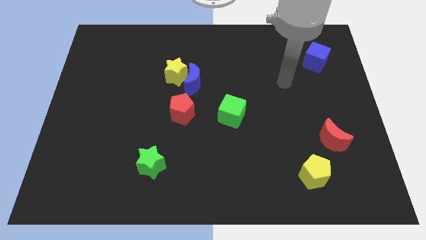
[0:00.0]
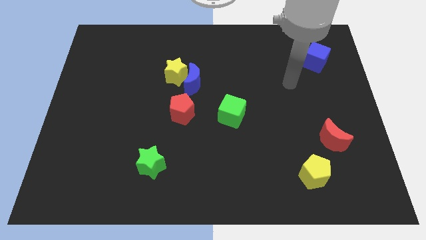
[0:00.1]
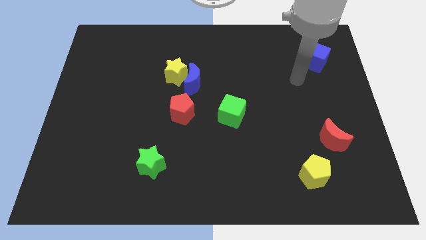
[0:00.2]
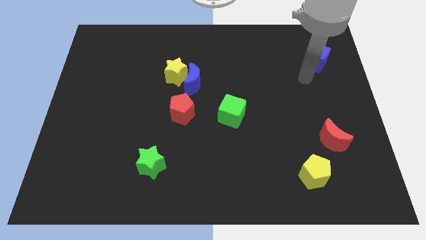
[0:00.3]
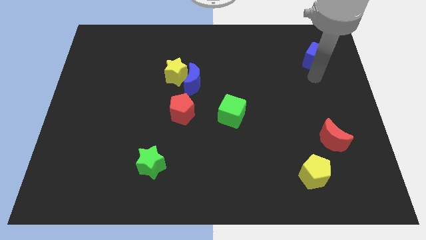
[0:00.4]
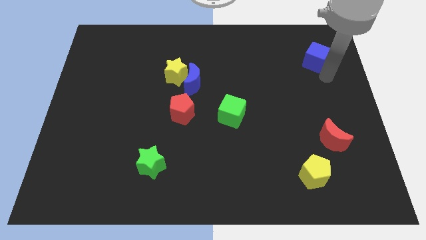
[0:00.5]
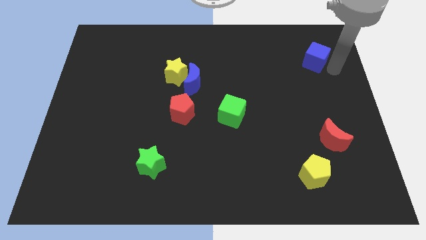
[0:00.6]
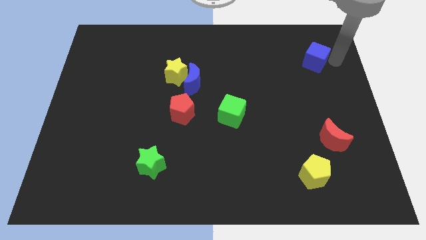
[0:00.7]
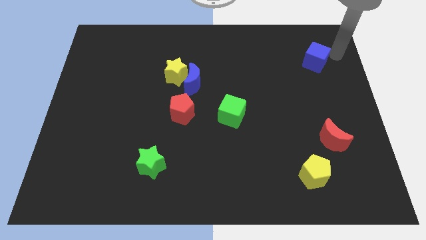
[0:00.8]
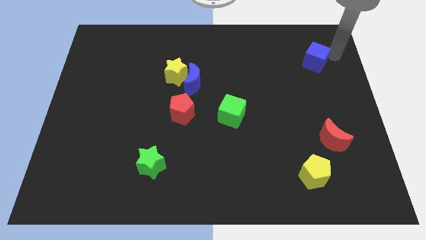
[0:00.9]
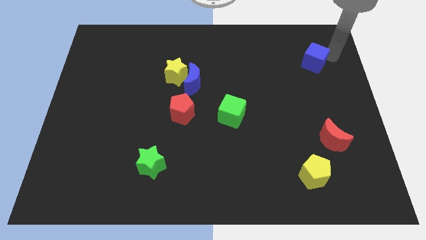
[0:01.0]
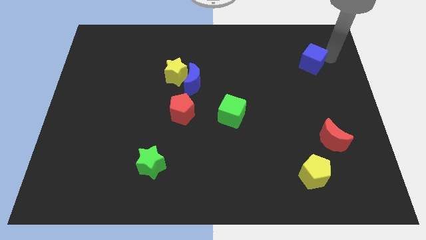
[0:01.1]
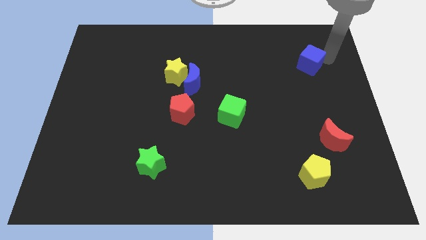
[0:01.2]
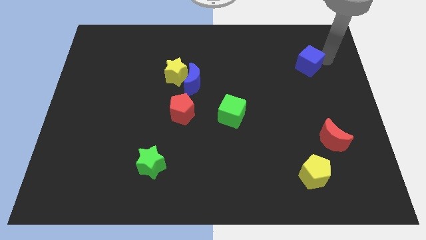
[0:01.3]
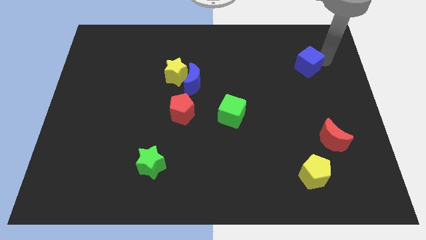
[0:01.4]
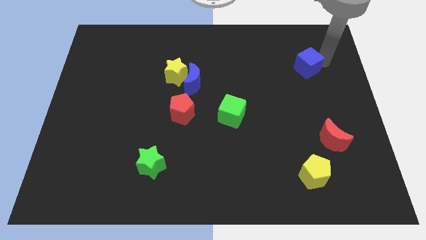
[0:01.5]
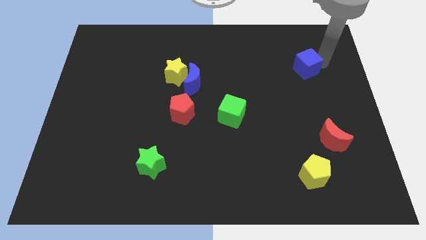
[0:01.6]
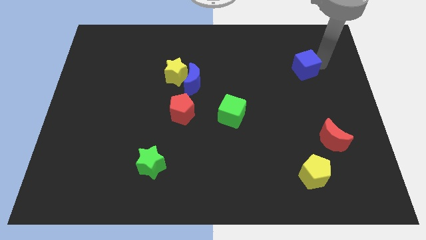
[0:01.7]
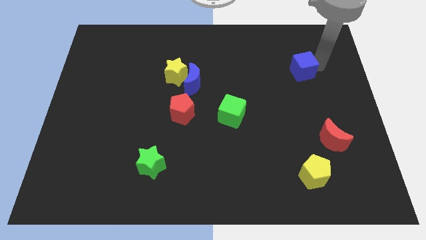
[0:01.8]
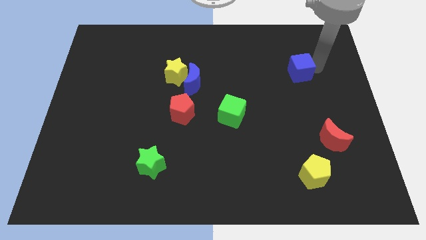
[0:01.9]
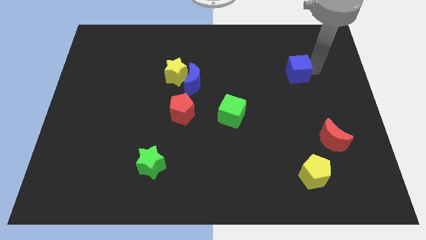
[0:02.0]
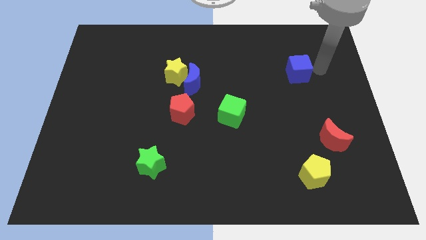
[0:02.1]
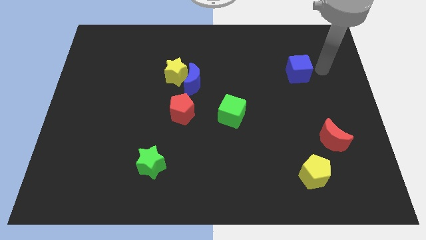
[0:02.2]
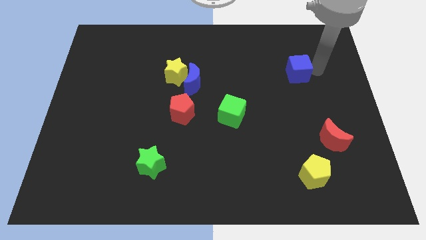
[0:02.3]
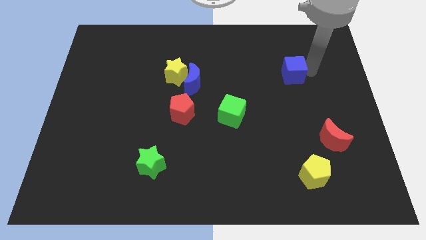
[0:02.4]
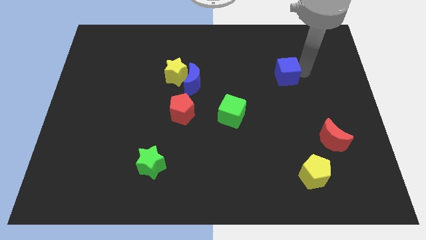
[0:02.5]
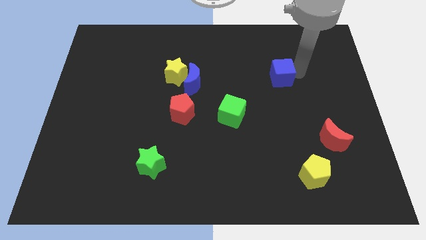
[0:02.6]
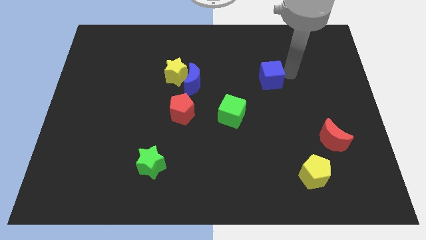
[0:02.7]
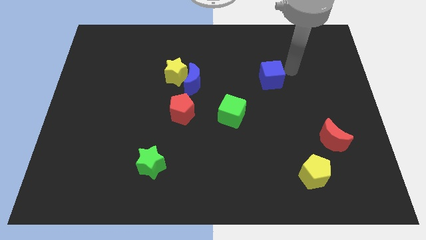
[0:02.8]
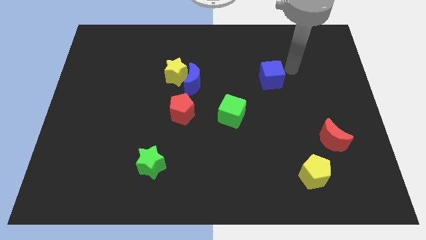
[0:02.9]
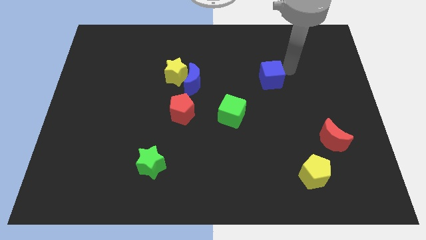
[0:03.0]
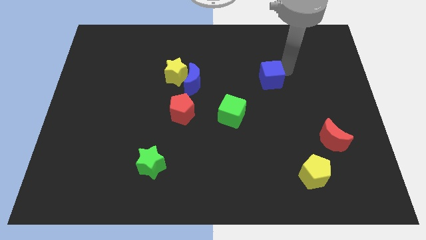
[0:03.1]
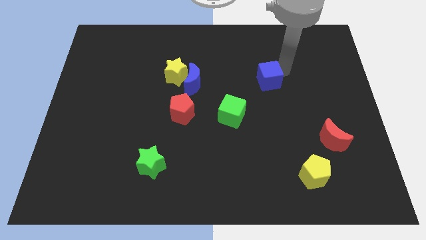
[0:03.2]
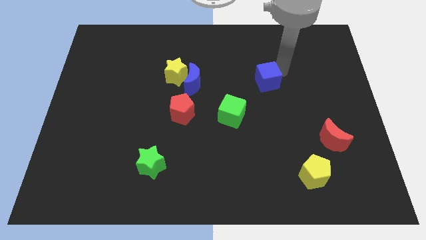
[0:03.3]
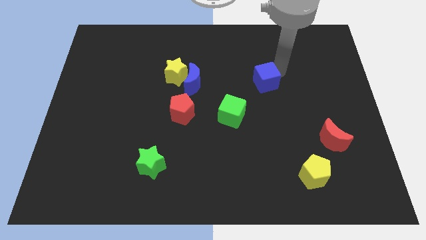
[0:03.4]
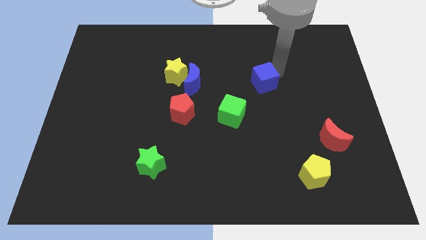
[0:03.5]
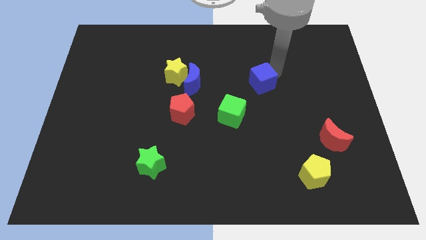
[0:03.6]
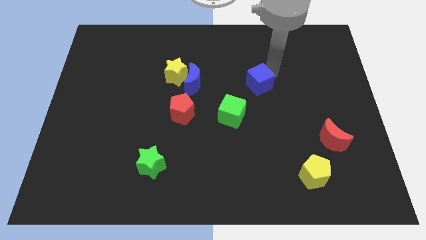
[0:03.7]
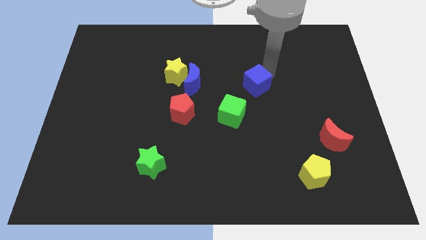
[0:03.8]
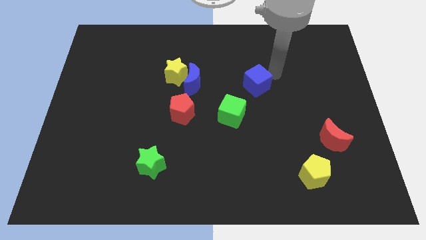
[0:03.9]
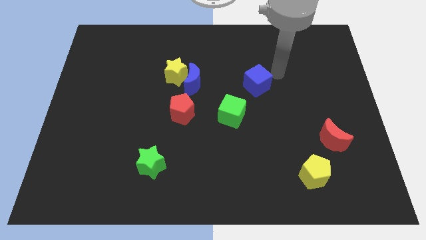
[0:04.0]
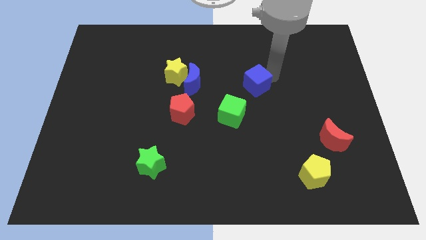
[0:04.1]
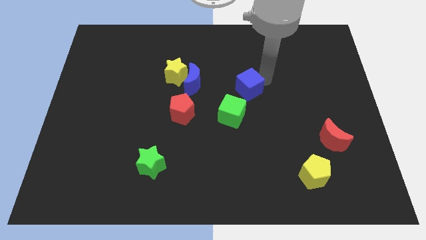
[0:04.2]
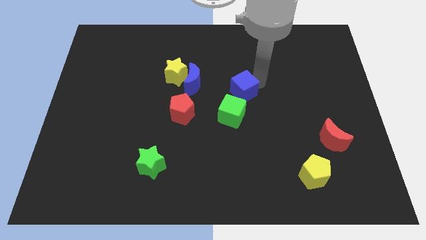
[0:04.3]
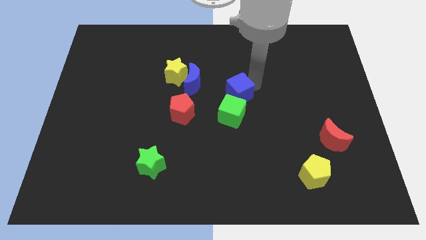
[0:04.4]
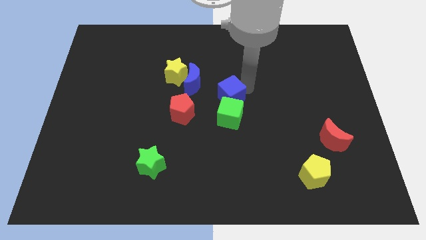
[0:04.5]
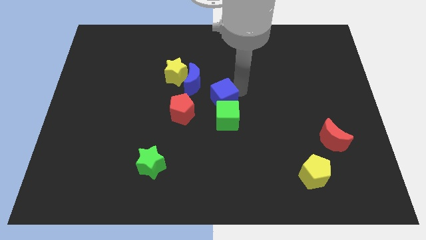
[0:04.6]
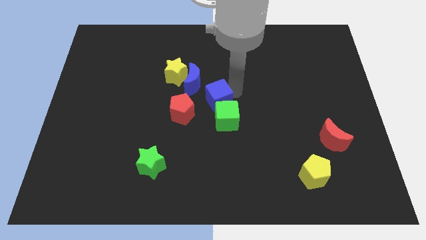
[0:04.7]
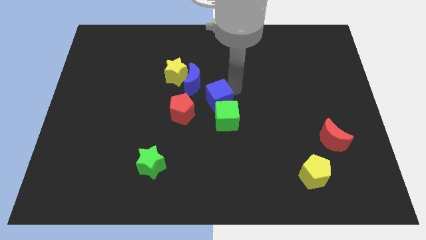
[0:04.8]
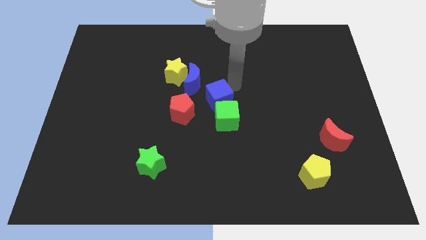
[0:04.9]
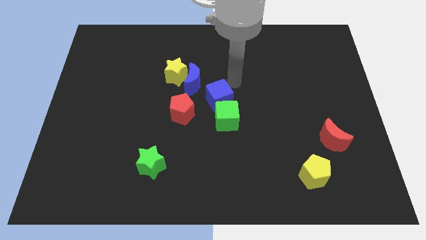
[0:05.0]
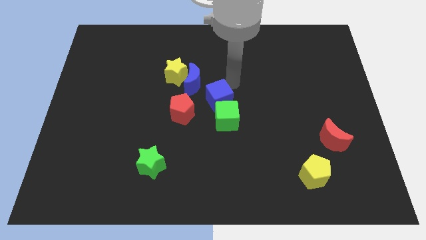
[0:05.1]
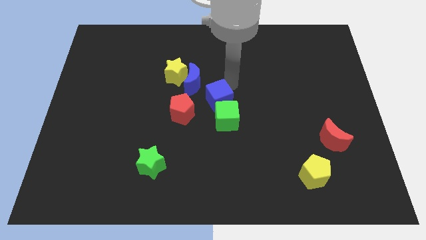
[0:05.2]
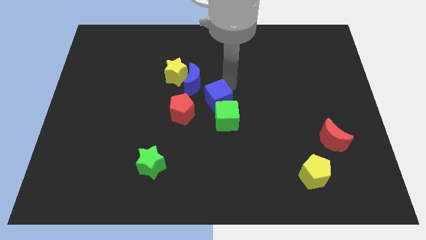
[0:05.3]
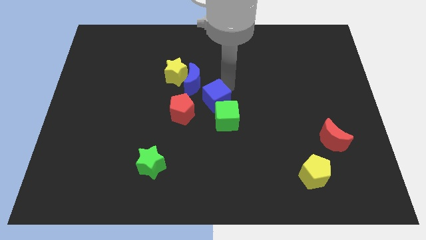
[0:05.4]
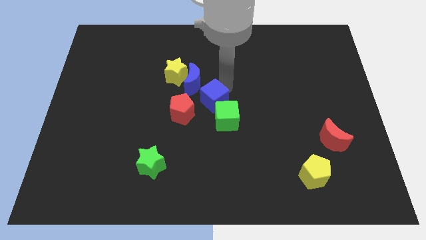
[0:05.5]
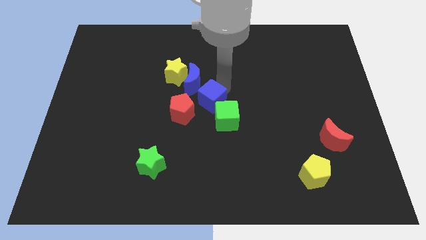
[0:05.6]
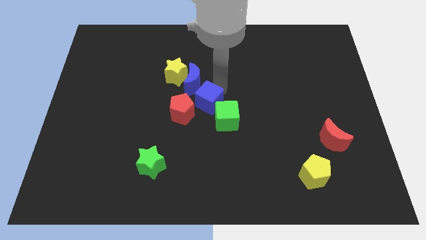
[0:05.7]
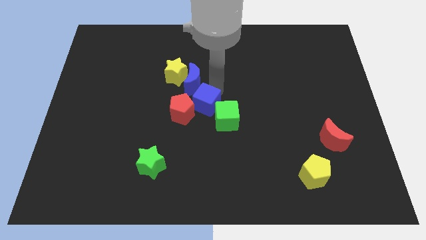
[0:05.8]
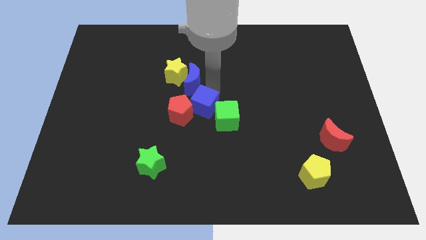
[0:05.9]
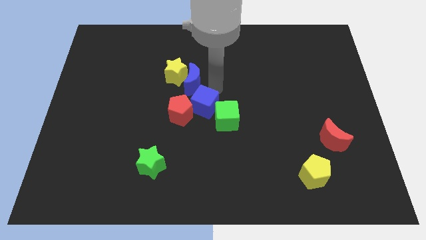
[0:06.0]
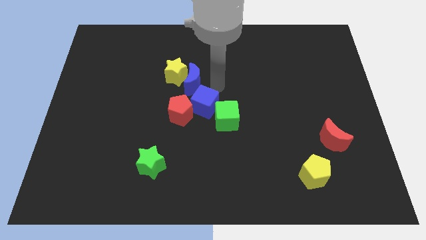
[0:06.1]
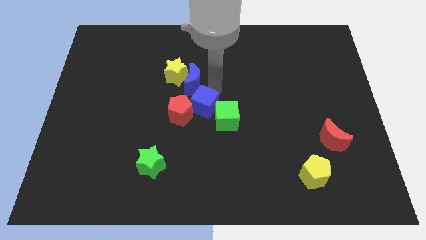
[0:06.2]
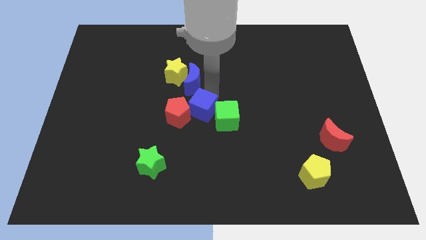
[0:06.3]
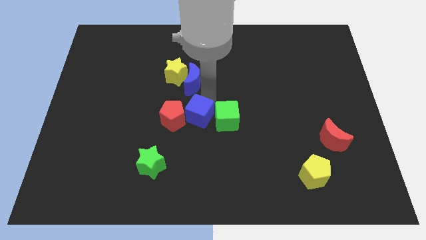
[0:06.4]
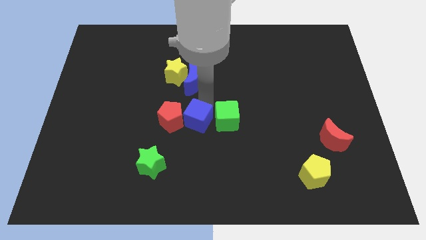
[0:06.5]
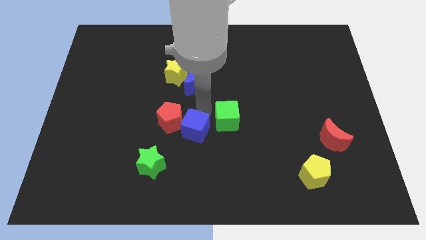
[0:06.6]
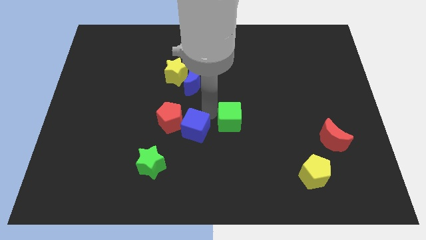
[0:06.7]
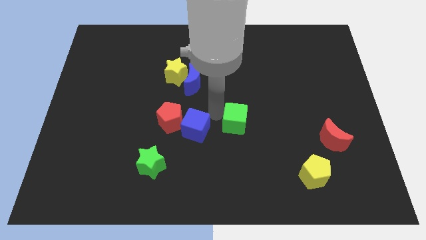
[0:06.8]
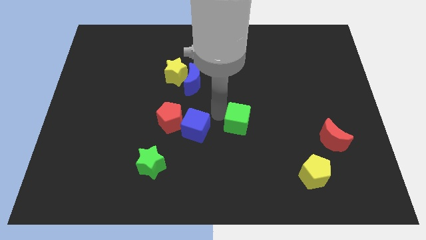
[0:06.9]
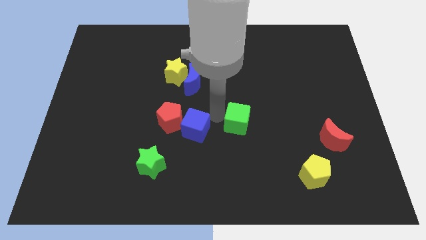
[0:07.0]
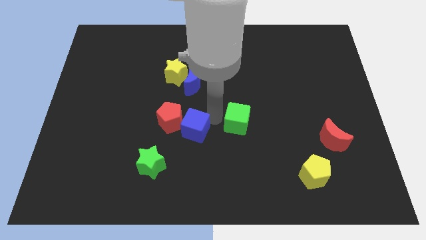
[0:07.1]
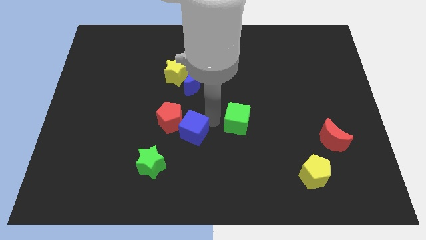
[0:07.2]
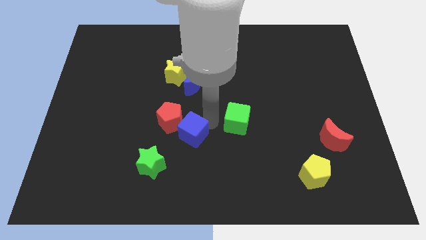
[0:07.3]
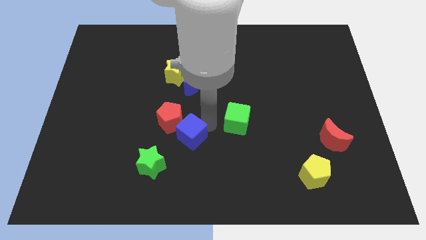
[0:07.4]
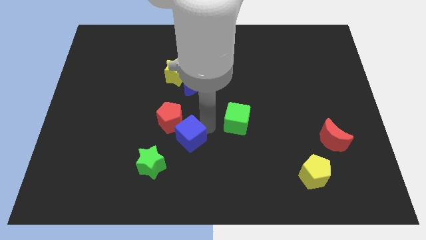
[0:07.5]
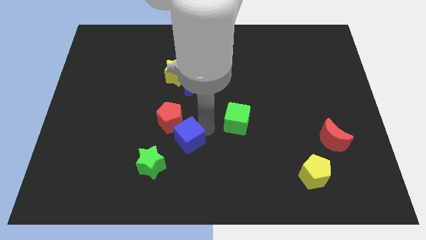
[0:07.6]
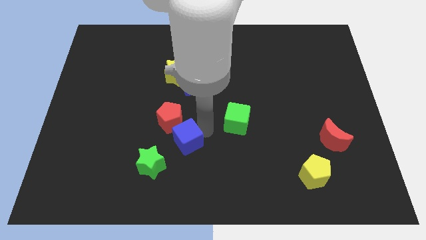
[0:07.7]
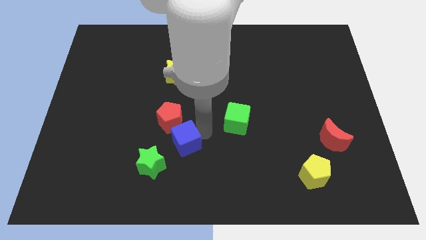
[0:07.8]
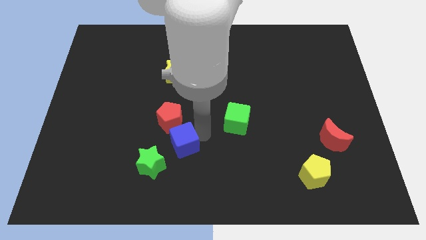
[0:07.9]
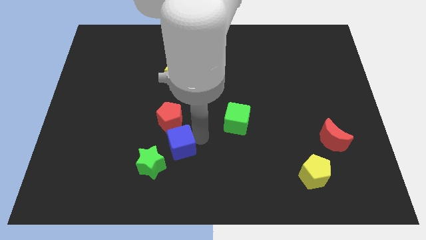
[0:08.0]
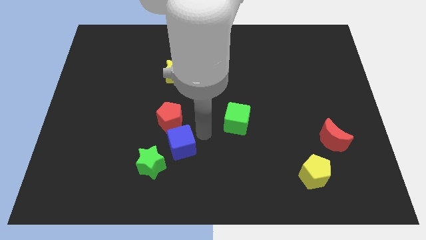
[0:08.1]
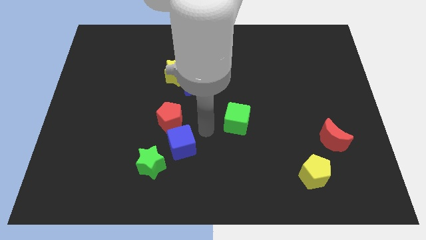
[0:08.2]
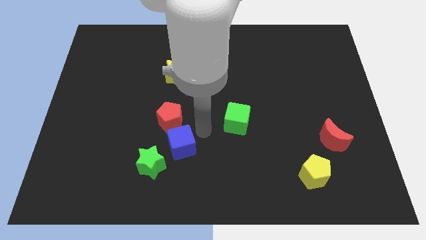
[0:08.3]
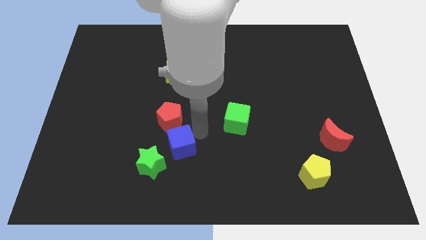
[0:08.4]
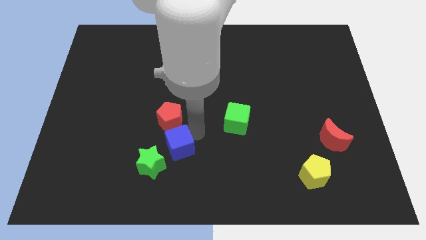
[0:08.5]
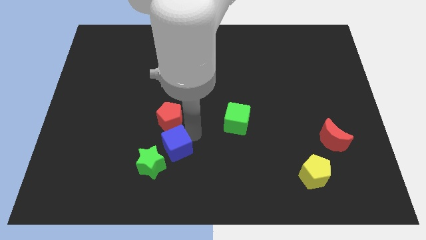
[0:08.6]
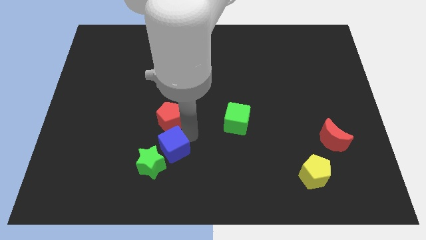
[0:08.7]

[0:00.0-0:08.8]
push the blue cube to the green star
